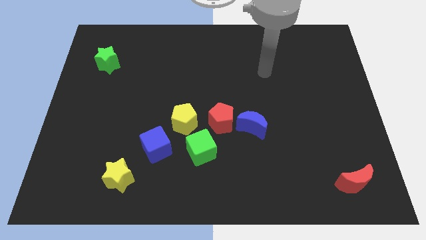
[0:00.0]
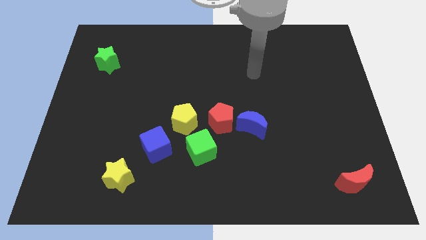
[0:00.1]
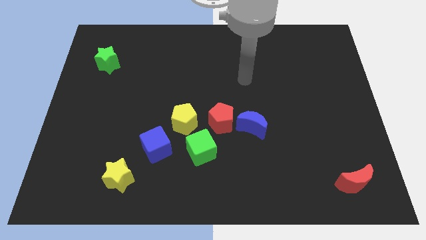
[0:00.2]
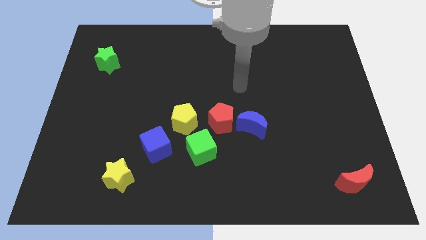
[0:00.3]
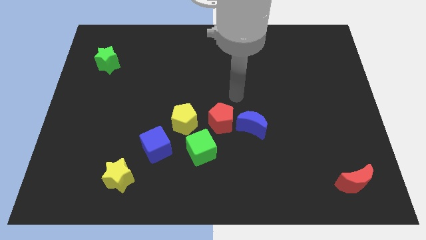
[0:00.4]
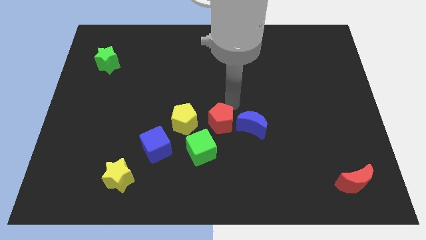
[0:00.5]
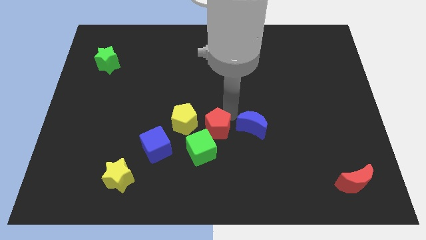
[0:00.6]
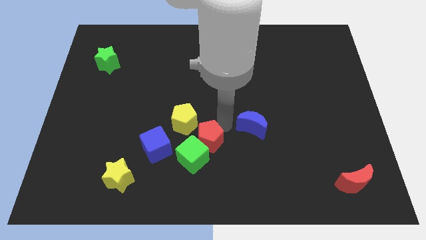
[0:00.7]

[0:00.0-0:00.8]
separate the blue moon from the red pentagon

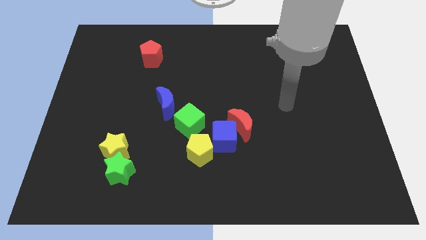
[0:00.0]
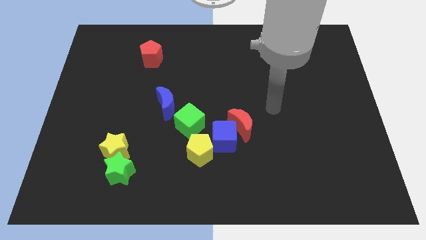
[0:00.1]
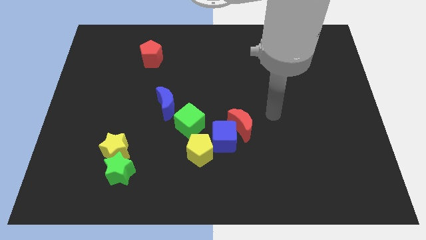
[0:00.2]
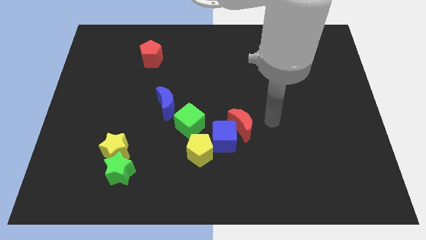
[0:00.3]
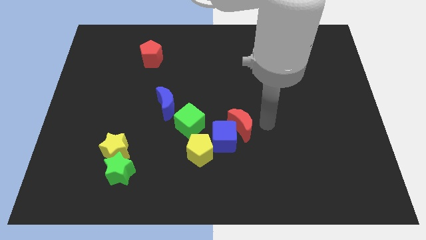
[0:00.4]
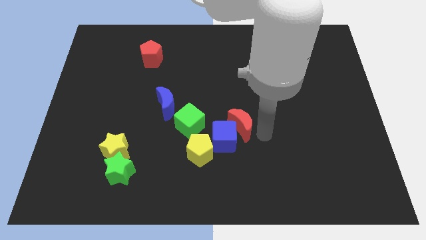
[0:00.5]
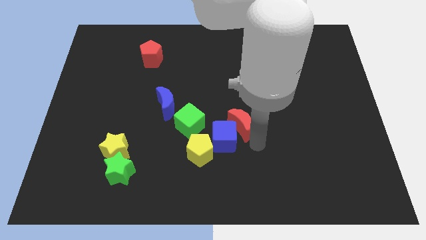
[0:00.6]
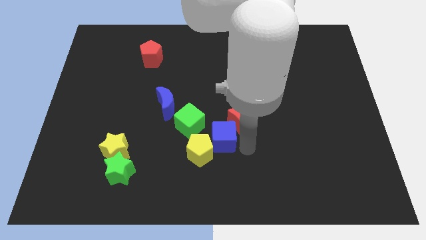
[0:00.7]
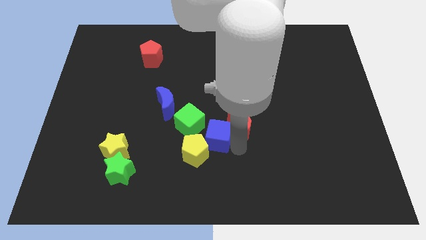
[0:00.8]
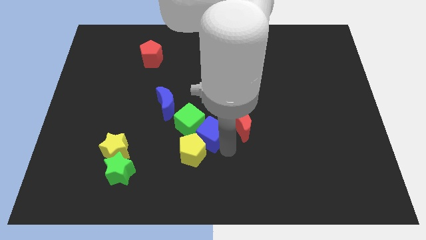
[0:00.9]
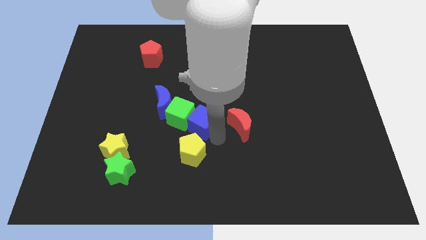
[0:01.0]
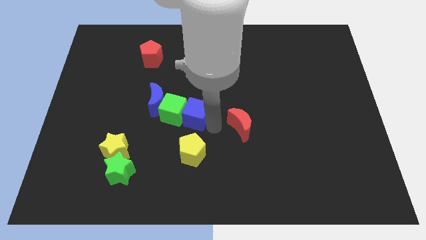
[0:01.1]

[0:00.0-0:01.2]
separate the red moon from the blue cube

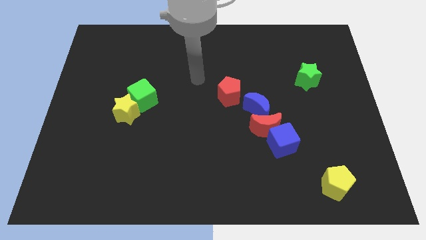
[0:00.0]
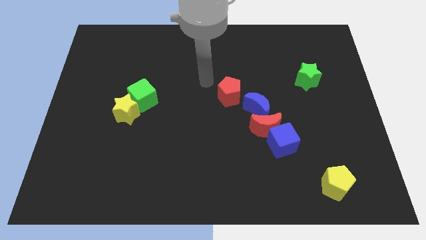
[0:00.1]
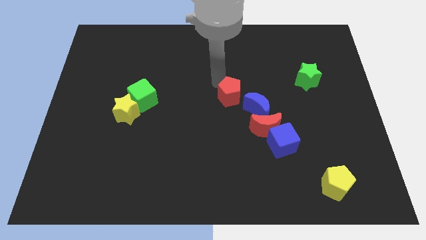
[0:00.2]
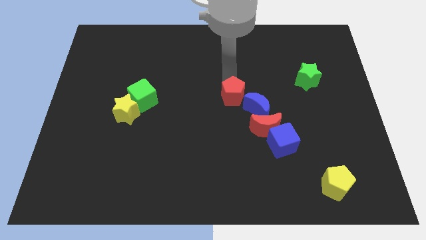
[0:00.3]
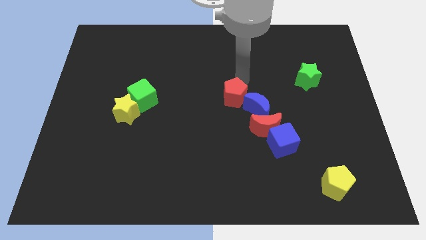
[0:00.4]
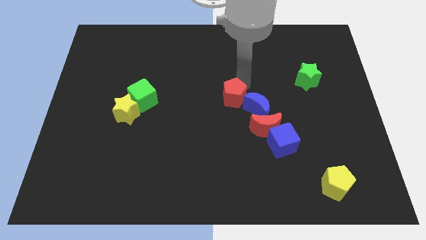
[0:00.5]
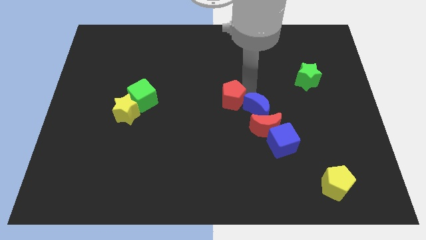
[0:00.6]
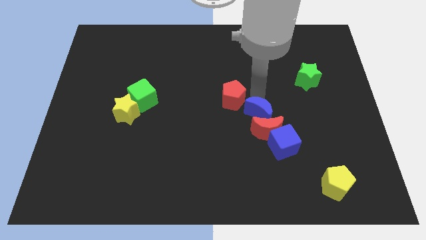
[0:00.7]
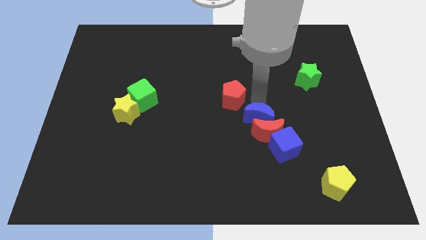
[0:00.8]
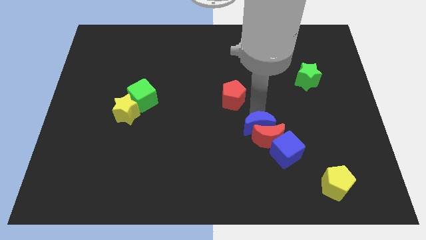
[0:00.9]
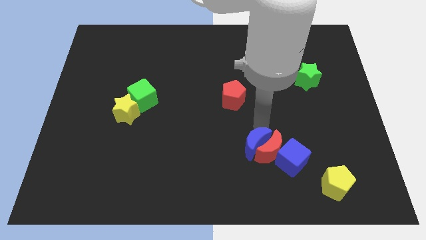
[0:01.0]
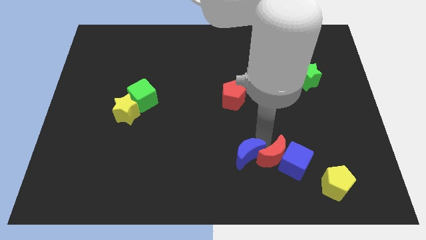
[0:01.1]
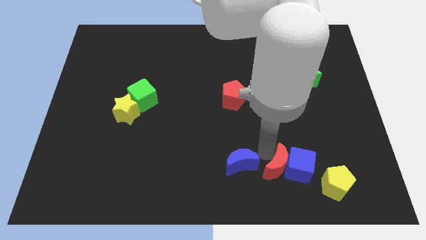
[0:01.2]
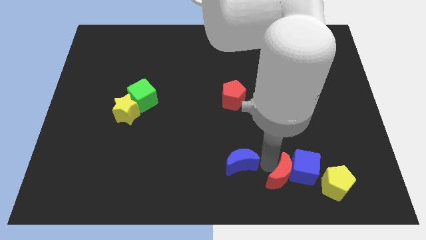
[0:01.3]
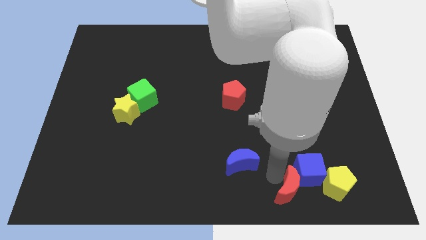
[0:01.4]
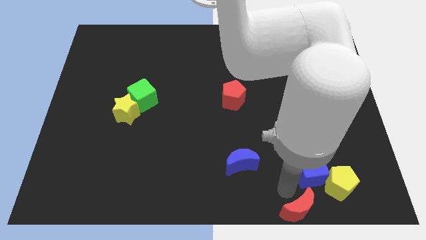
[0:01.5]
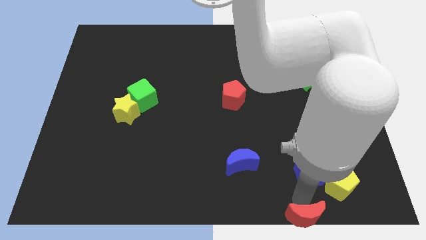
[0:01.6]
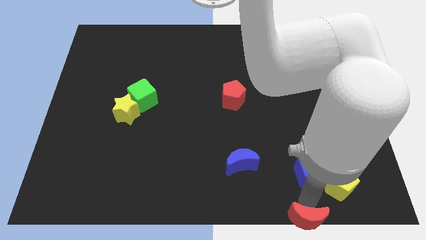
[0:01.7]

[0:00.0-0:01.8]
pull the blue cube apart from the red moon

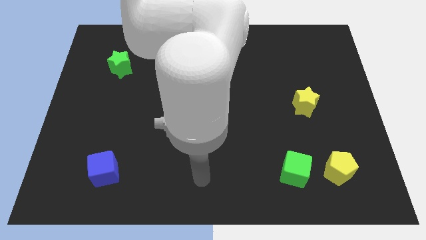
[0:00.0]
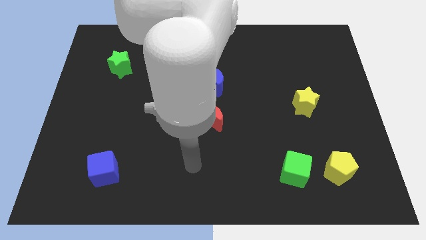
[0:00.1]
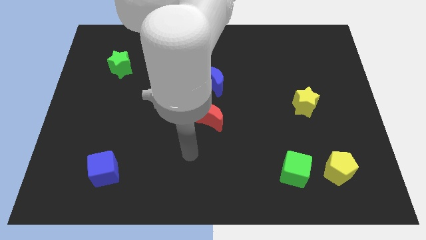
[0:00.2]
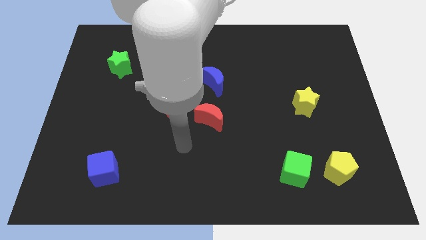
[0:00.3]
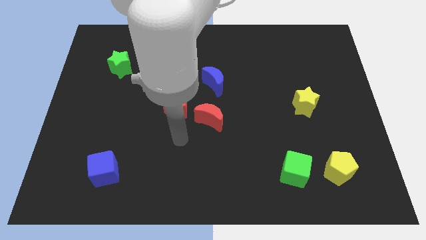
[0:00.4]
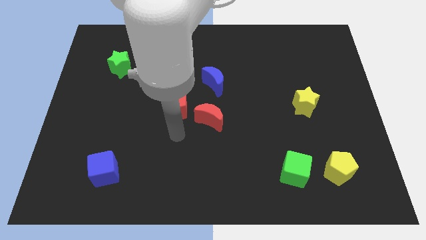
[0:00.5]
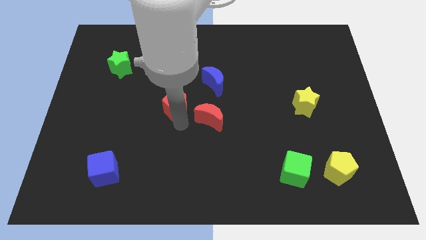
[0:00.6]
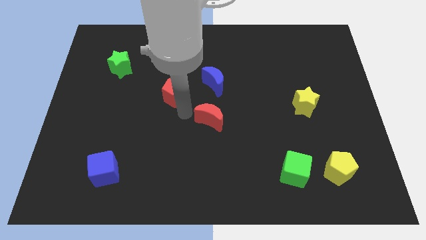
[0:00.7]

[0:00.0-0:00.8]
pull the red moon apart from the red pentagon

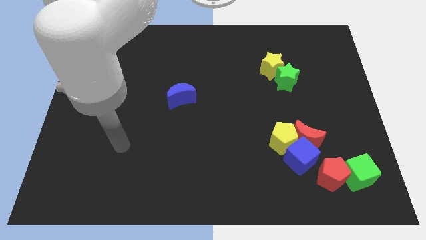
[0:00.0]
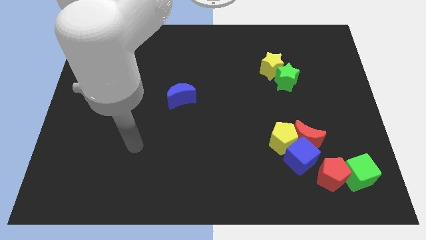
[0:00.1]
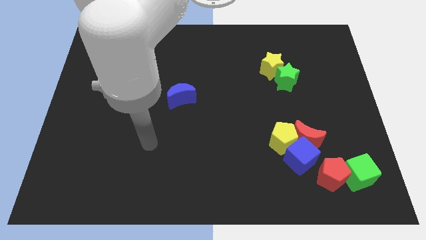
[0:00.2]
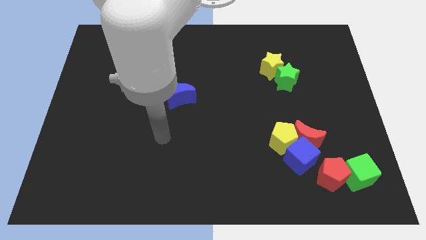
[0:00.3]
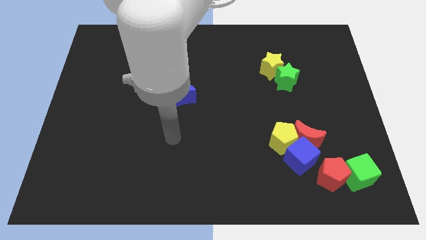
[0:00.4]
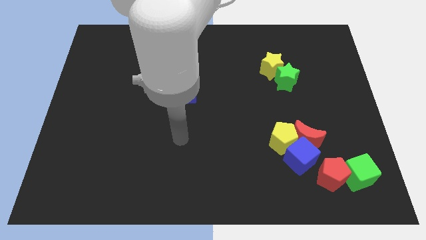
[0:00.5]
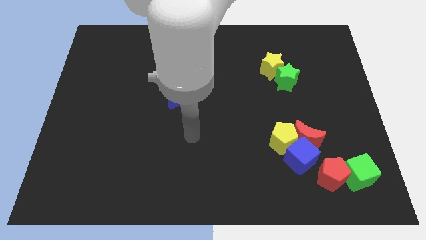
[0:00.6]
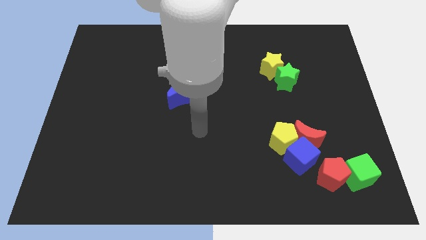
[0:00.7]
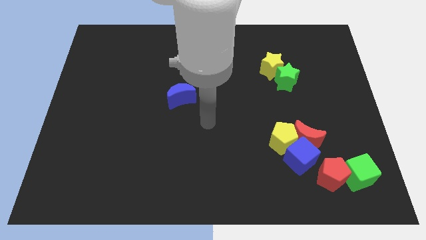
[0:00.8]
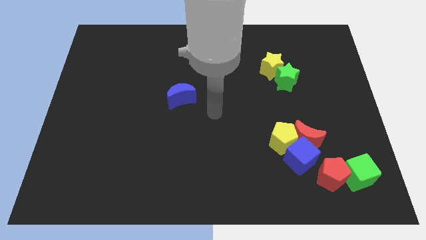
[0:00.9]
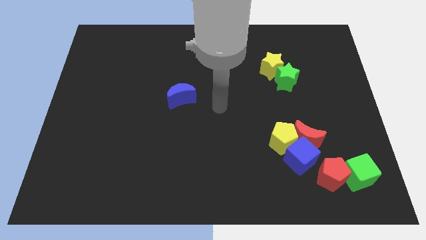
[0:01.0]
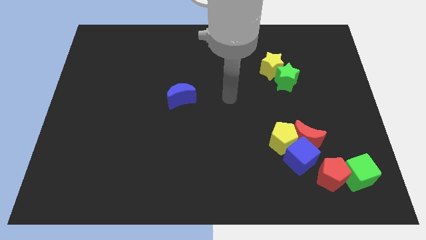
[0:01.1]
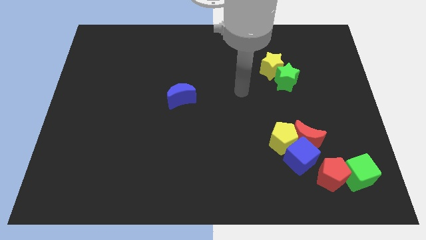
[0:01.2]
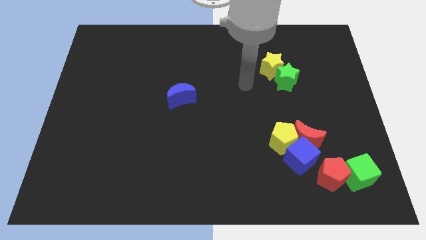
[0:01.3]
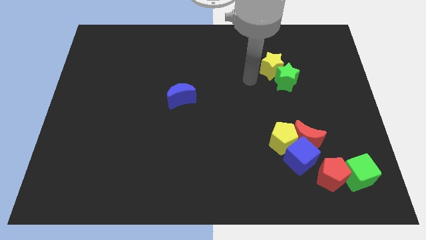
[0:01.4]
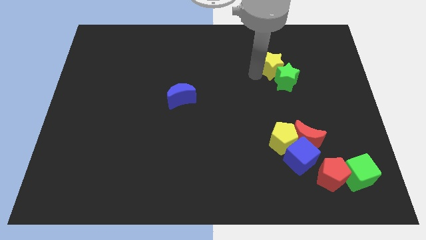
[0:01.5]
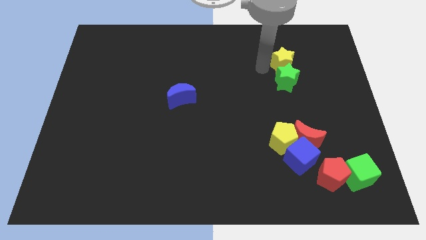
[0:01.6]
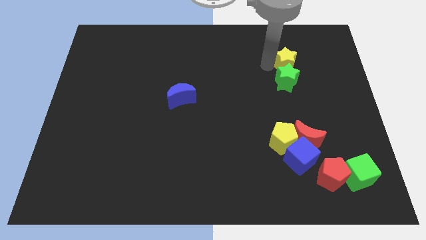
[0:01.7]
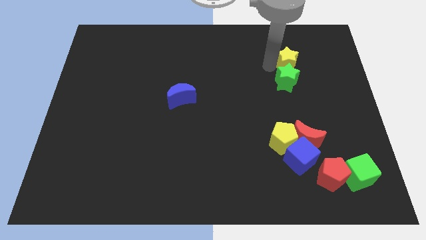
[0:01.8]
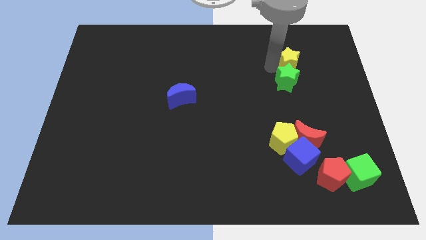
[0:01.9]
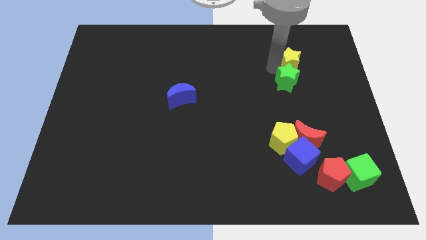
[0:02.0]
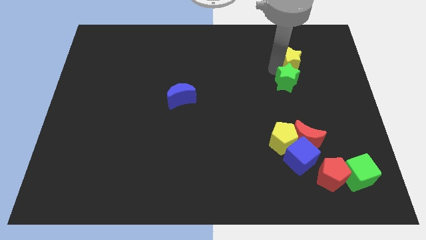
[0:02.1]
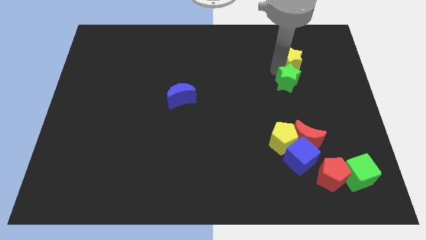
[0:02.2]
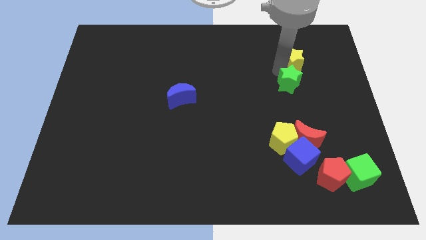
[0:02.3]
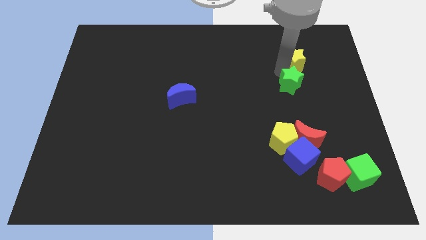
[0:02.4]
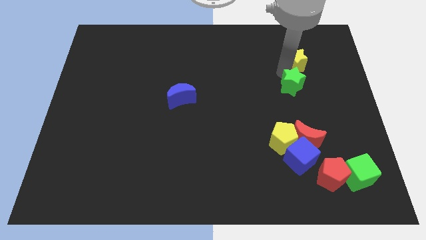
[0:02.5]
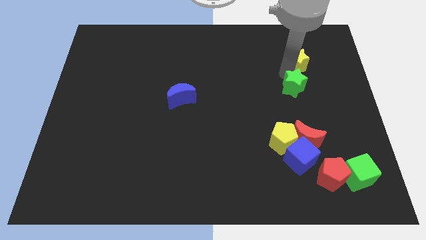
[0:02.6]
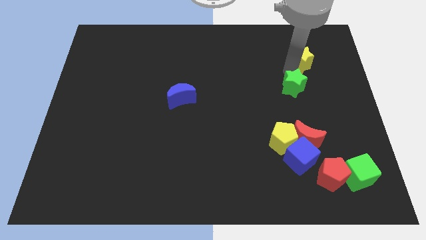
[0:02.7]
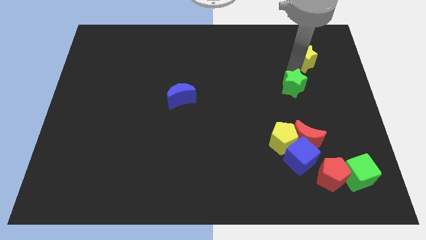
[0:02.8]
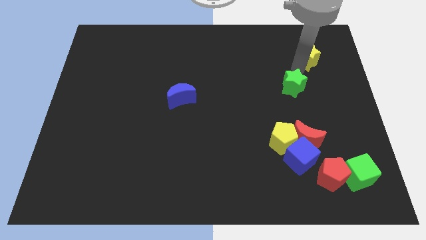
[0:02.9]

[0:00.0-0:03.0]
pull the green star apart from the yellow star

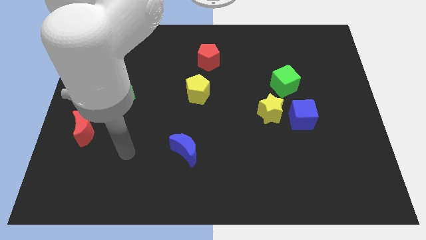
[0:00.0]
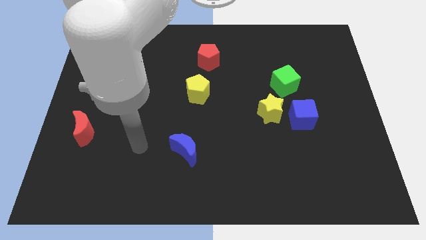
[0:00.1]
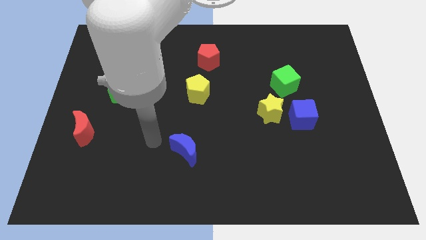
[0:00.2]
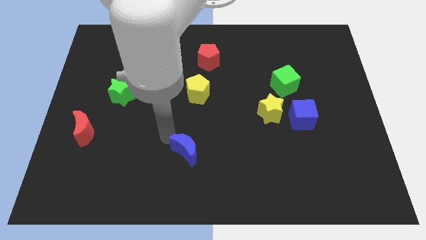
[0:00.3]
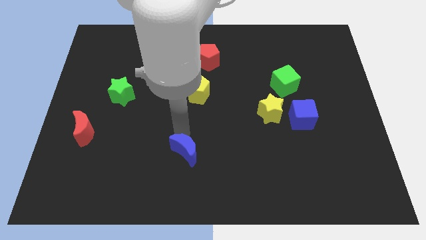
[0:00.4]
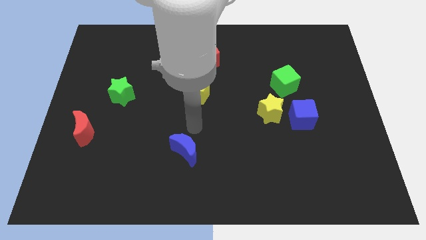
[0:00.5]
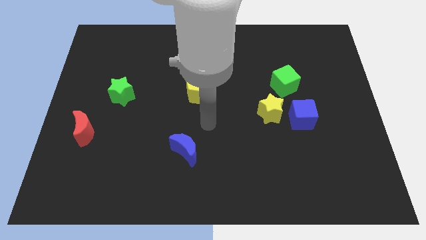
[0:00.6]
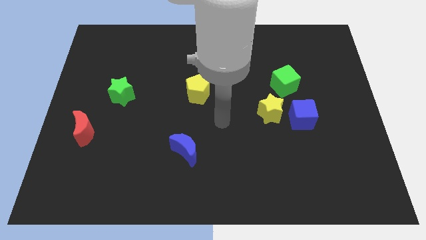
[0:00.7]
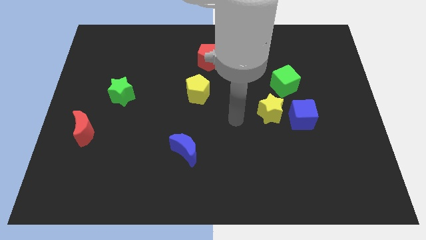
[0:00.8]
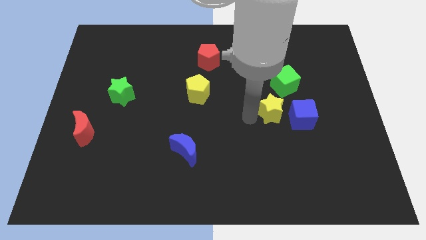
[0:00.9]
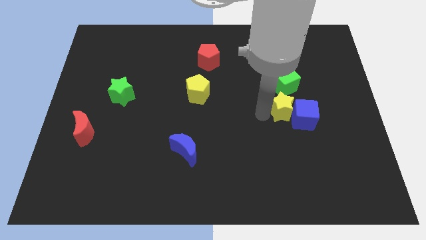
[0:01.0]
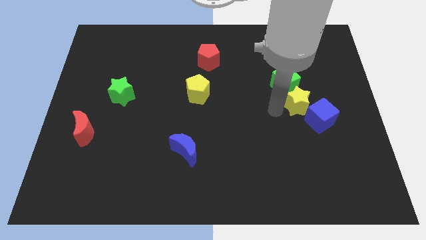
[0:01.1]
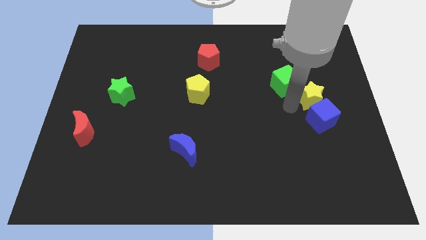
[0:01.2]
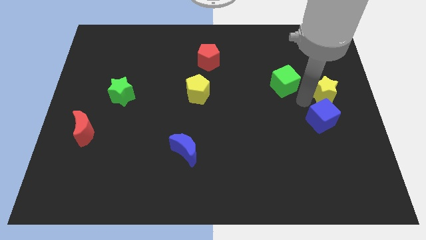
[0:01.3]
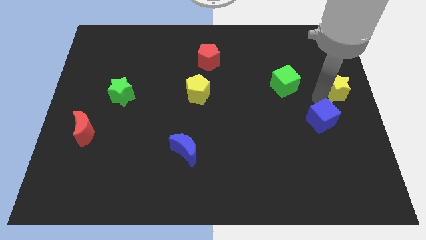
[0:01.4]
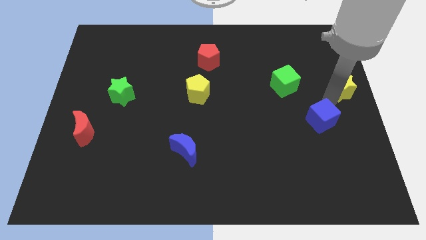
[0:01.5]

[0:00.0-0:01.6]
separate the blue cube from the yellow star

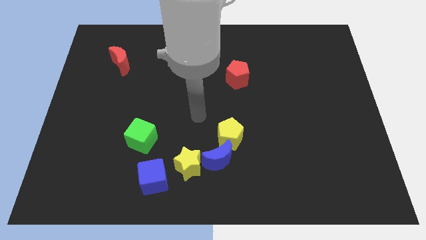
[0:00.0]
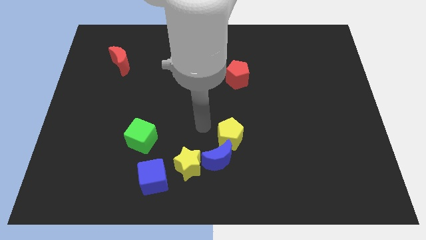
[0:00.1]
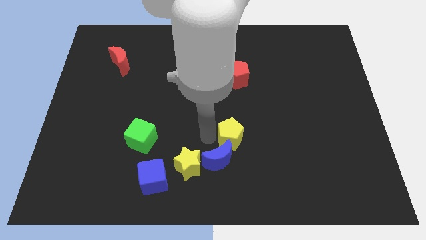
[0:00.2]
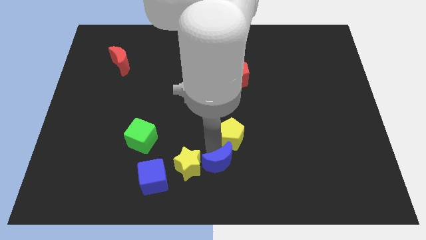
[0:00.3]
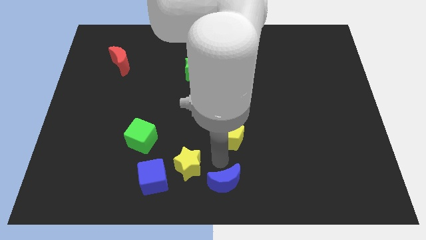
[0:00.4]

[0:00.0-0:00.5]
move the yellow pentagon away from the blue moon
